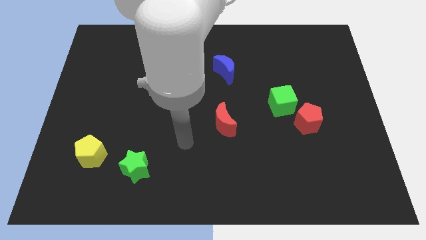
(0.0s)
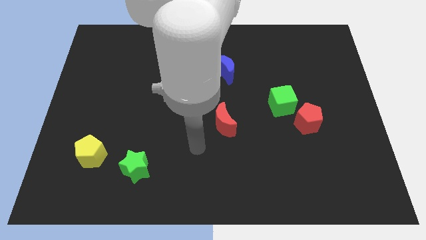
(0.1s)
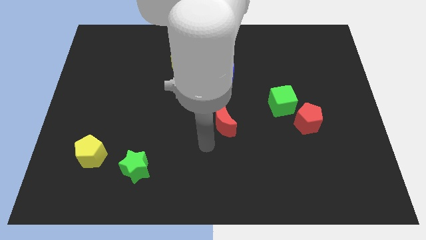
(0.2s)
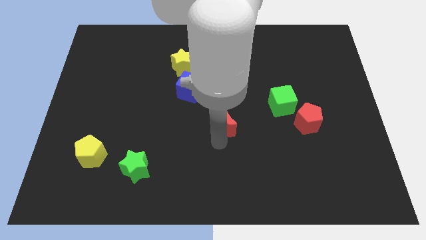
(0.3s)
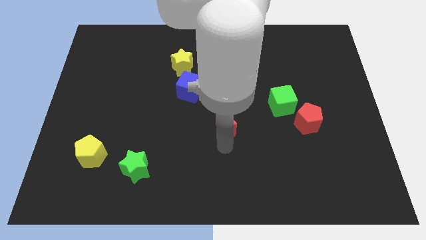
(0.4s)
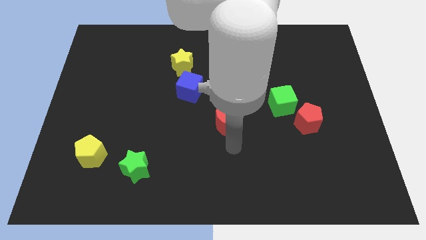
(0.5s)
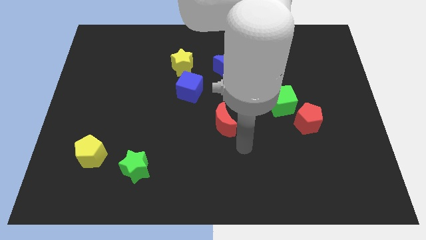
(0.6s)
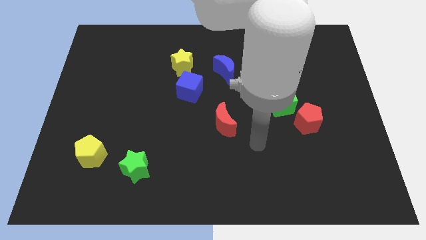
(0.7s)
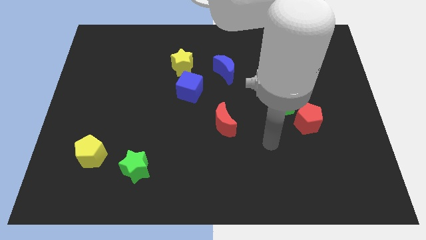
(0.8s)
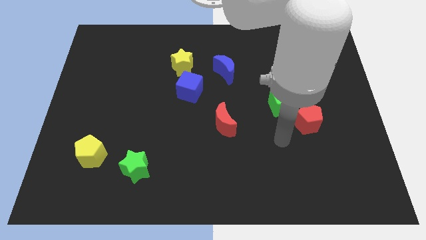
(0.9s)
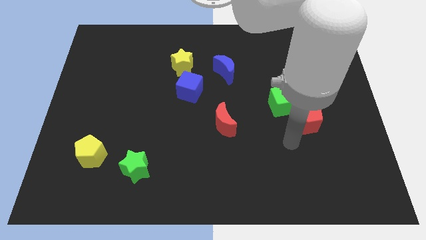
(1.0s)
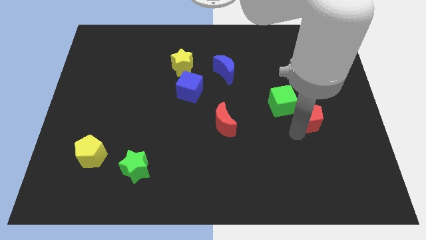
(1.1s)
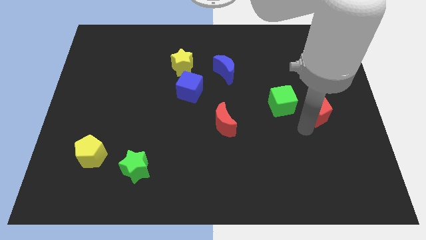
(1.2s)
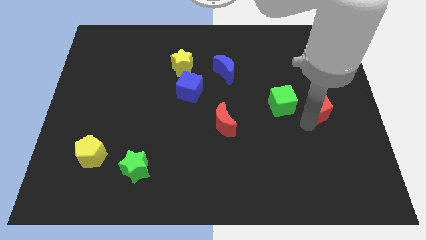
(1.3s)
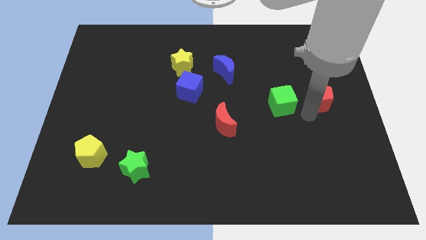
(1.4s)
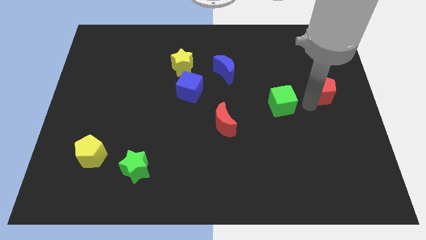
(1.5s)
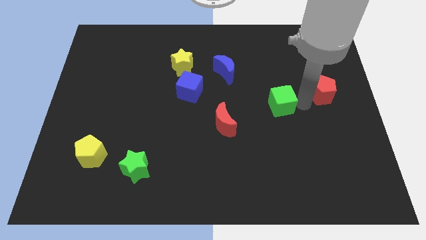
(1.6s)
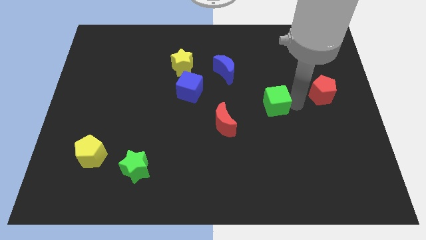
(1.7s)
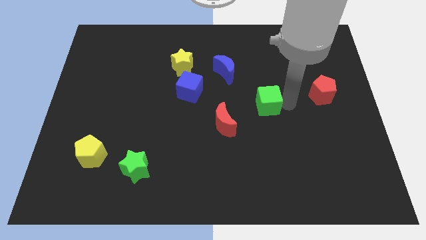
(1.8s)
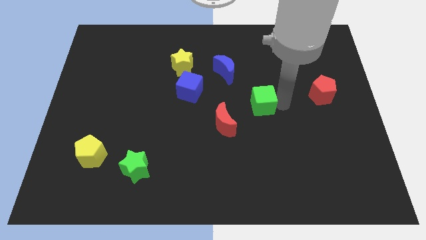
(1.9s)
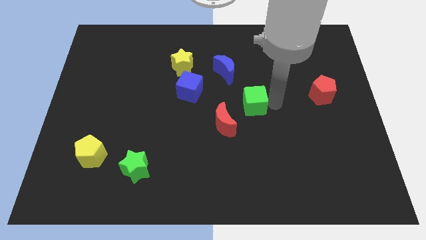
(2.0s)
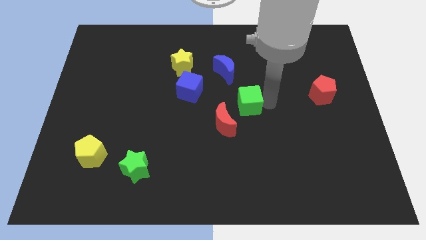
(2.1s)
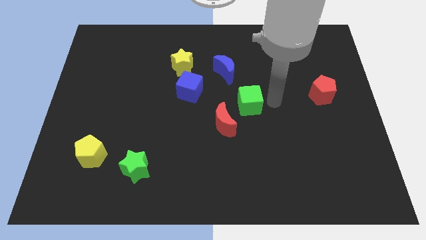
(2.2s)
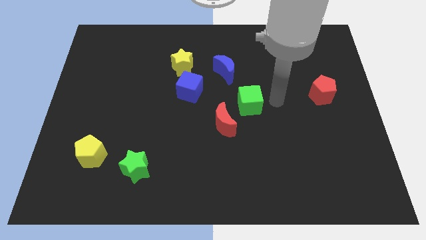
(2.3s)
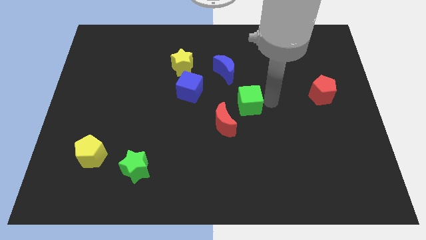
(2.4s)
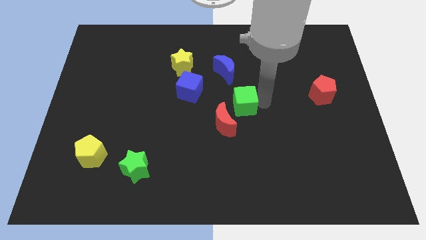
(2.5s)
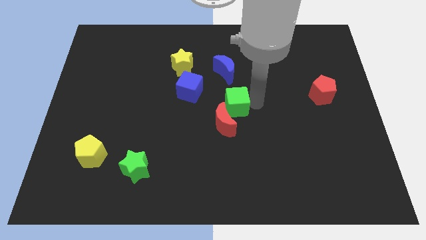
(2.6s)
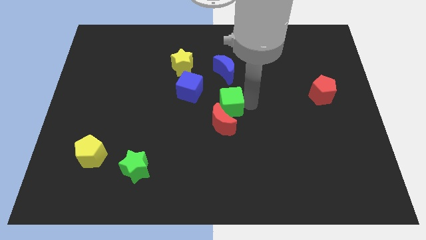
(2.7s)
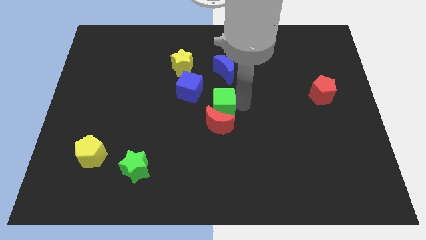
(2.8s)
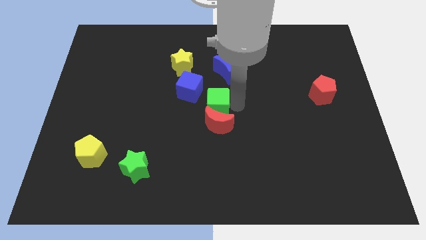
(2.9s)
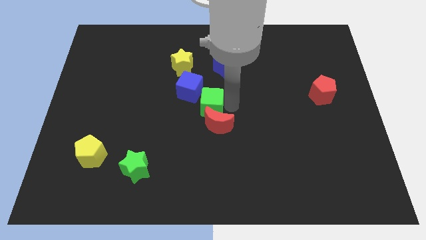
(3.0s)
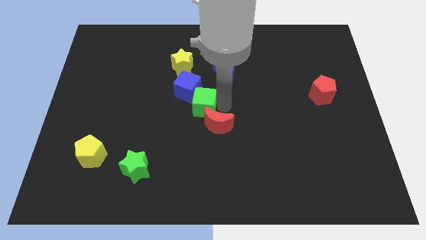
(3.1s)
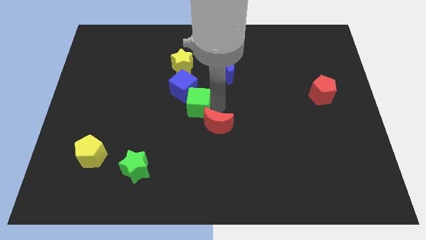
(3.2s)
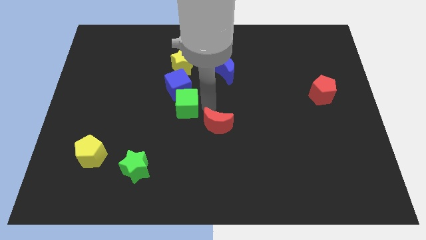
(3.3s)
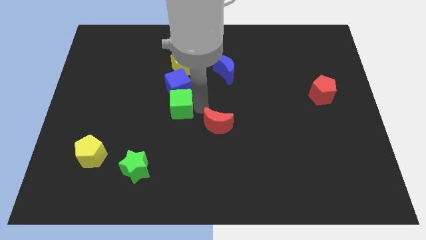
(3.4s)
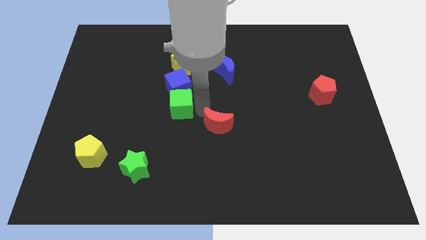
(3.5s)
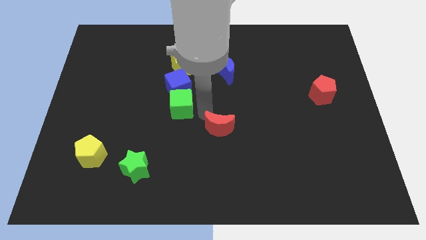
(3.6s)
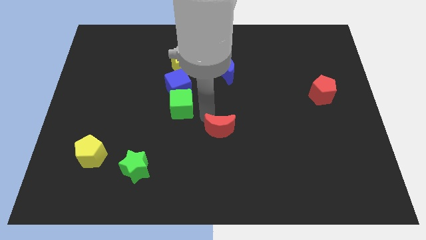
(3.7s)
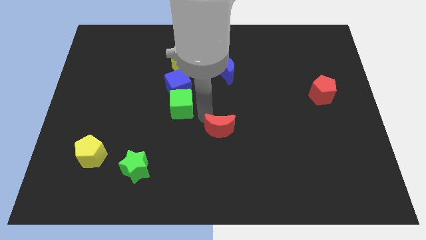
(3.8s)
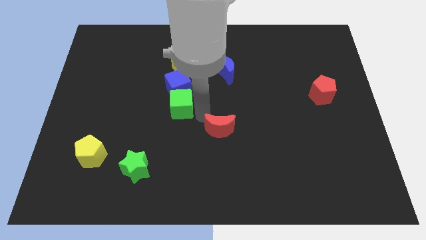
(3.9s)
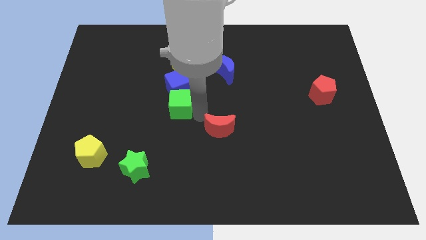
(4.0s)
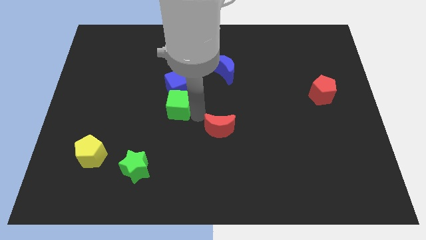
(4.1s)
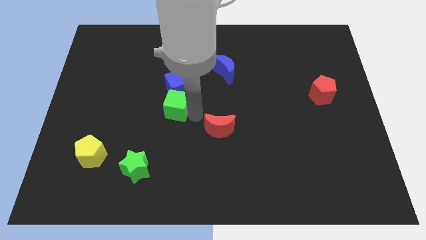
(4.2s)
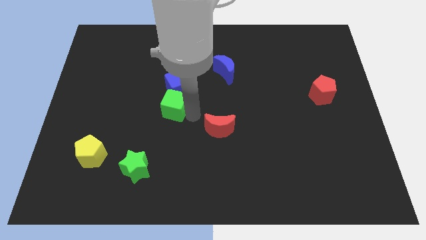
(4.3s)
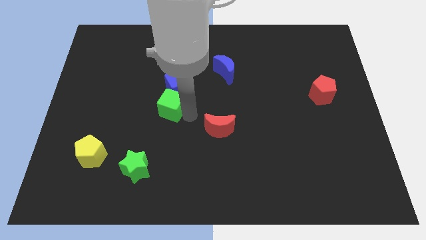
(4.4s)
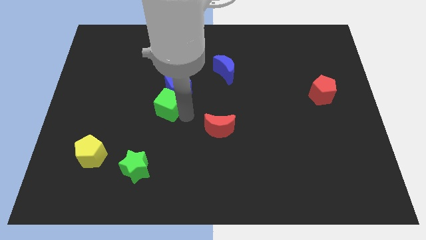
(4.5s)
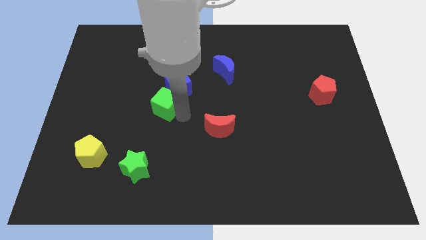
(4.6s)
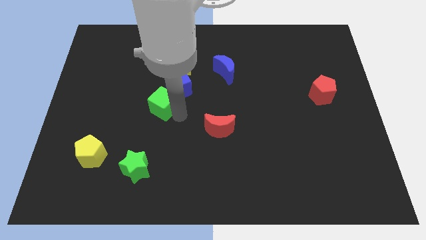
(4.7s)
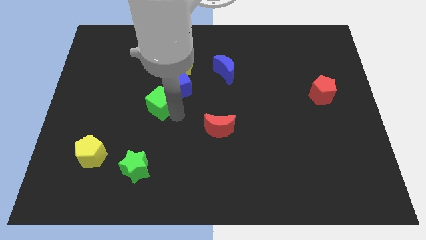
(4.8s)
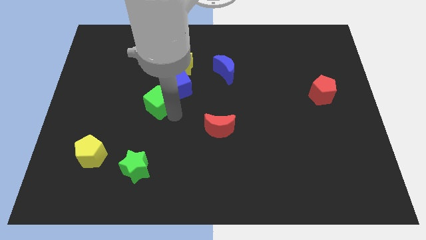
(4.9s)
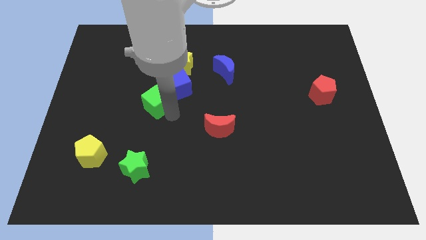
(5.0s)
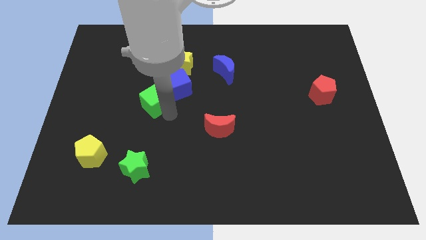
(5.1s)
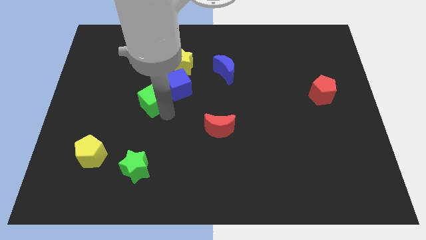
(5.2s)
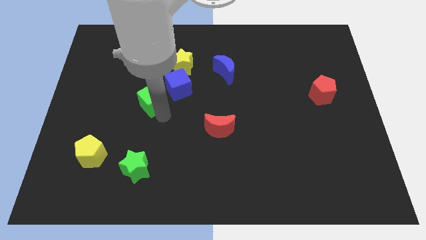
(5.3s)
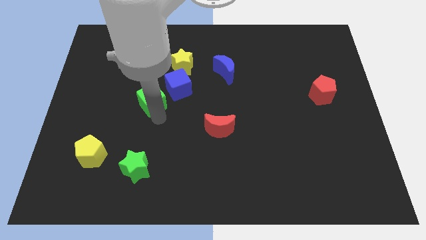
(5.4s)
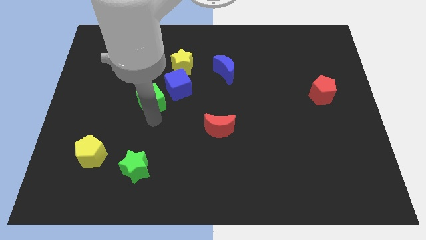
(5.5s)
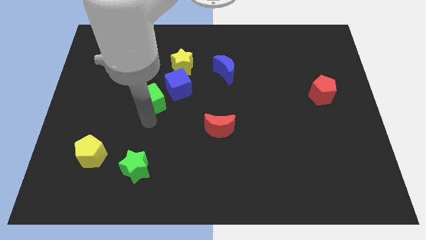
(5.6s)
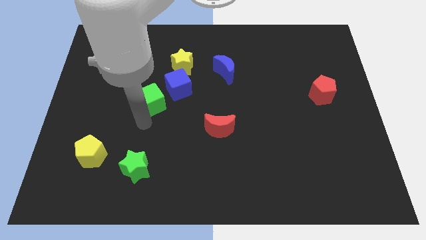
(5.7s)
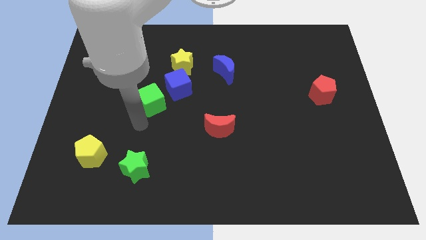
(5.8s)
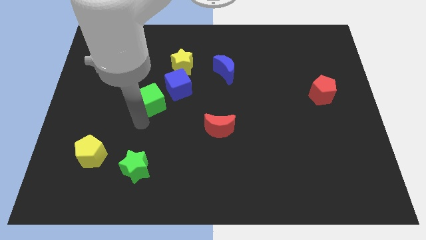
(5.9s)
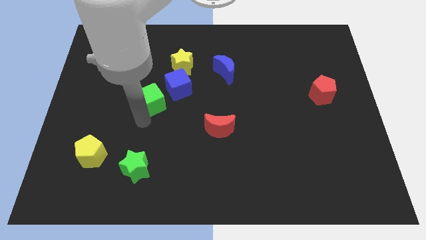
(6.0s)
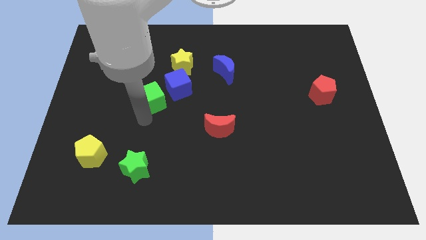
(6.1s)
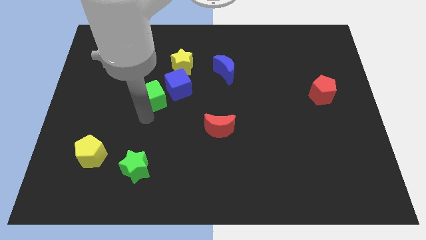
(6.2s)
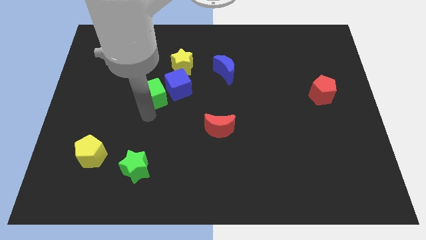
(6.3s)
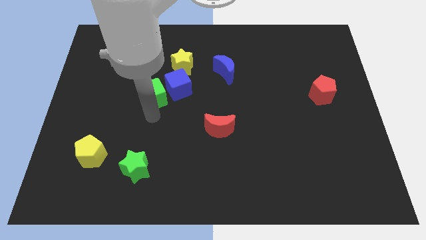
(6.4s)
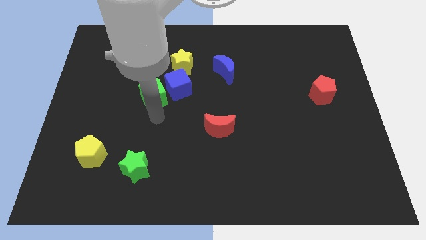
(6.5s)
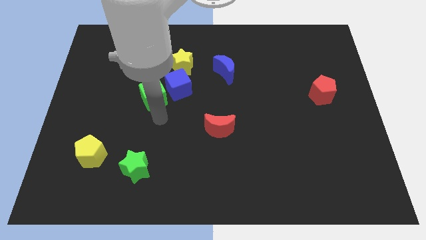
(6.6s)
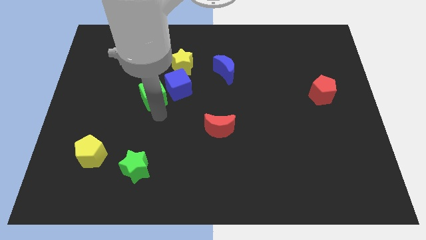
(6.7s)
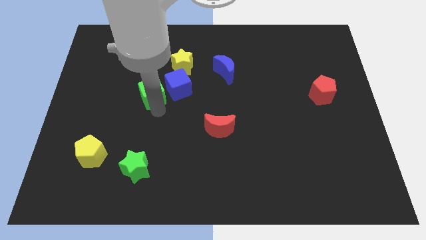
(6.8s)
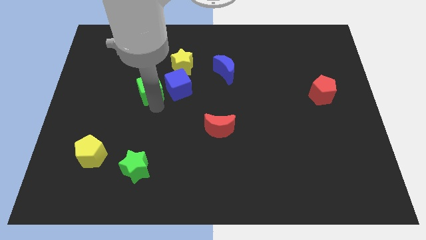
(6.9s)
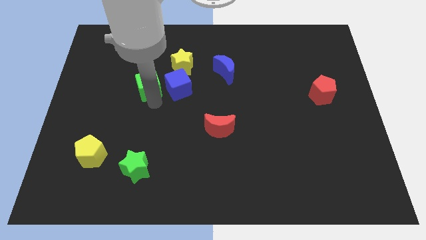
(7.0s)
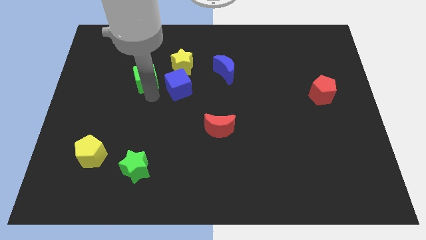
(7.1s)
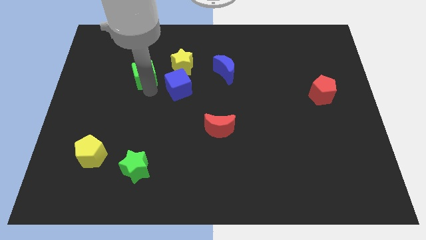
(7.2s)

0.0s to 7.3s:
put the green cube left of the yellow star
